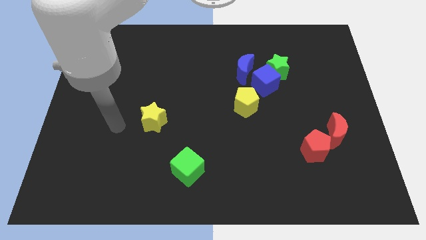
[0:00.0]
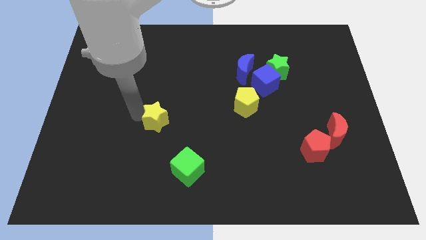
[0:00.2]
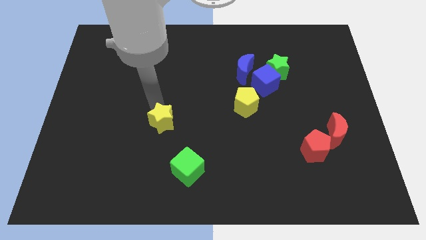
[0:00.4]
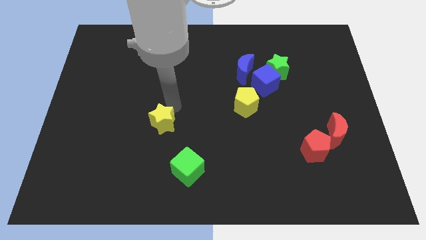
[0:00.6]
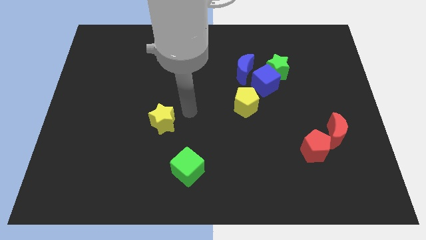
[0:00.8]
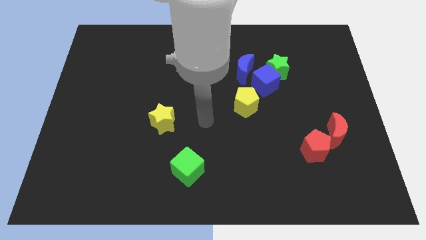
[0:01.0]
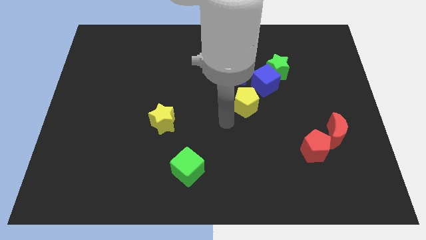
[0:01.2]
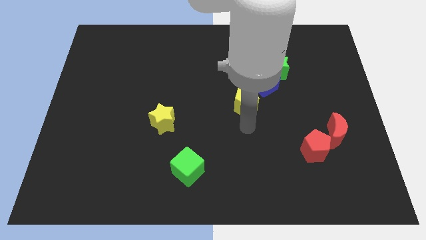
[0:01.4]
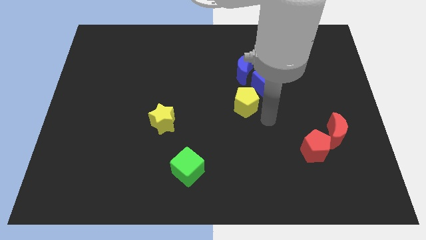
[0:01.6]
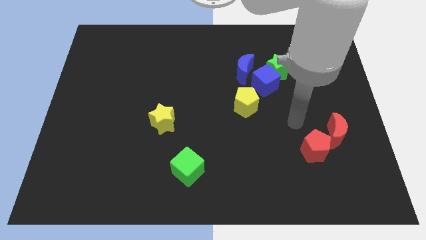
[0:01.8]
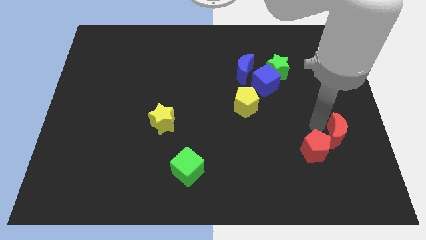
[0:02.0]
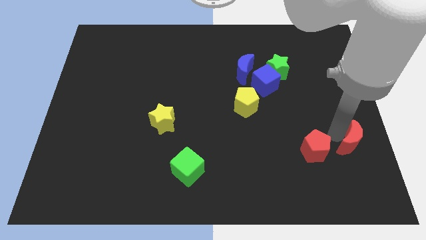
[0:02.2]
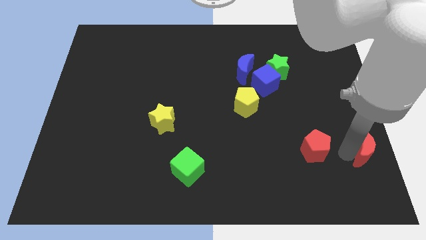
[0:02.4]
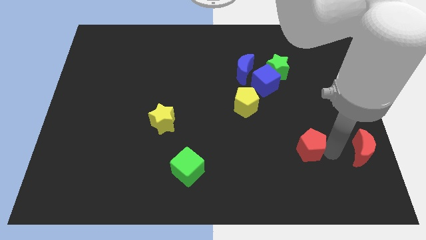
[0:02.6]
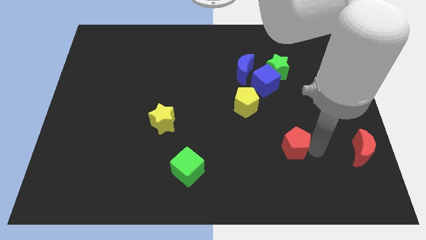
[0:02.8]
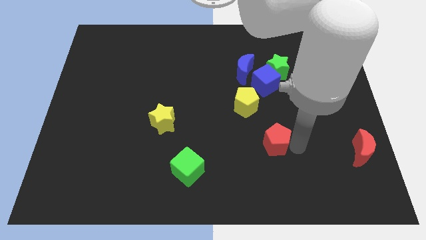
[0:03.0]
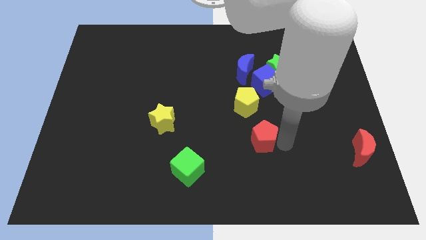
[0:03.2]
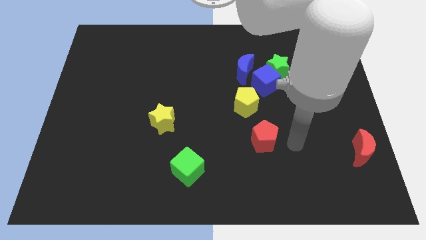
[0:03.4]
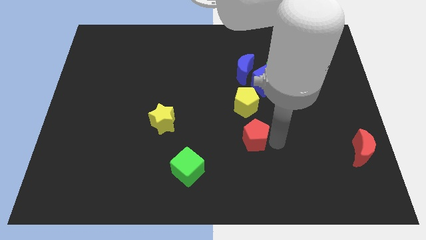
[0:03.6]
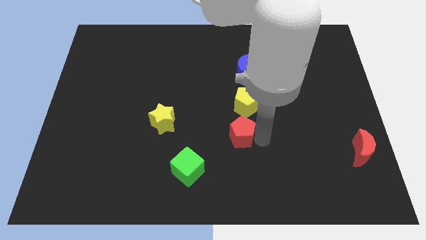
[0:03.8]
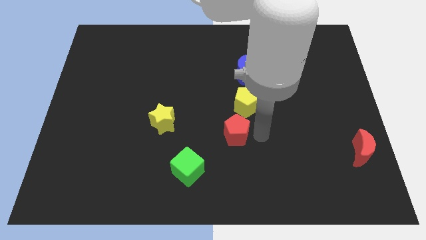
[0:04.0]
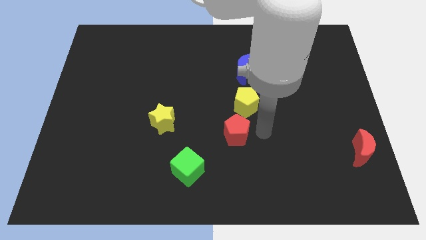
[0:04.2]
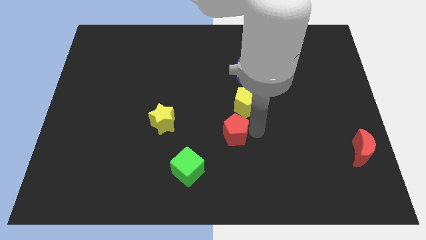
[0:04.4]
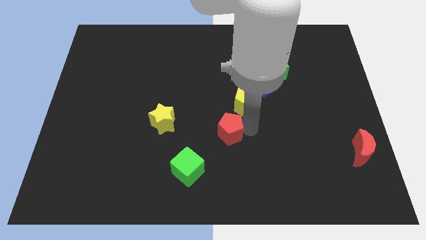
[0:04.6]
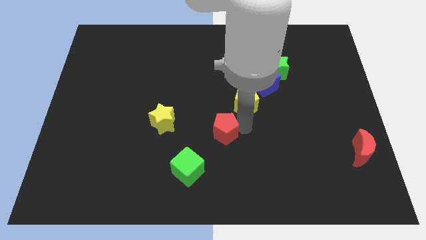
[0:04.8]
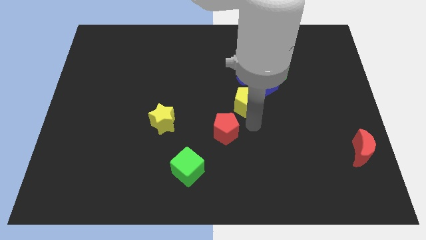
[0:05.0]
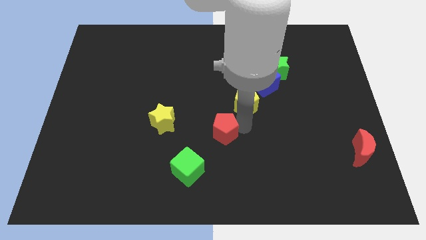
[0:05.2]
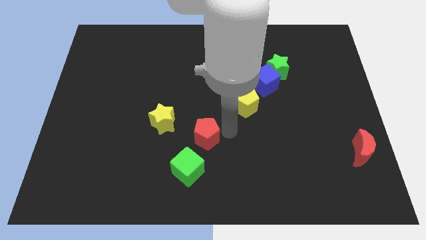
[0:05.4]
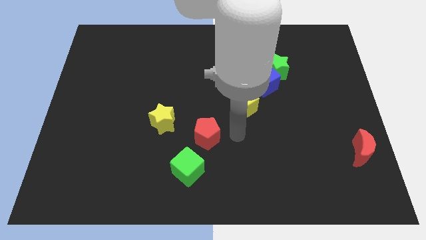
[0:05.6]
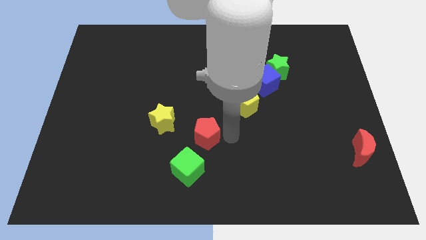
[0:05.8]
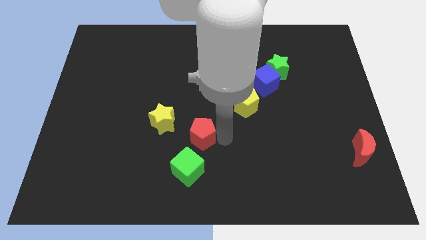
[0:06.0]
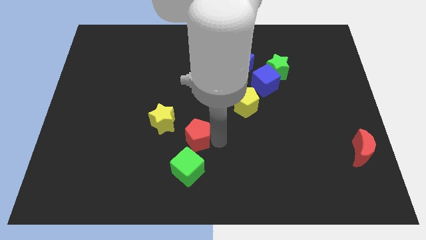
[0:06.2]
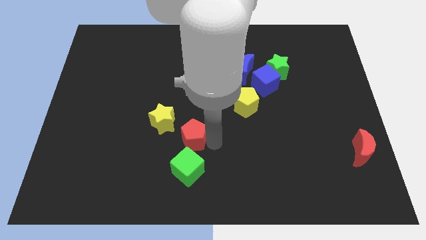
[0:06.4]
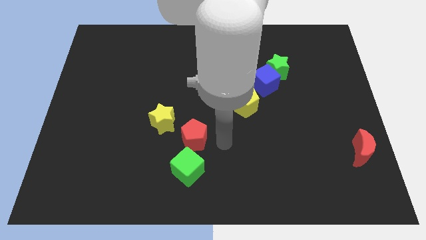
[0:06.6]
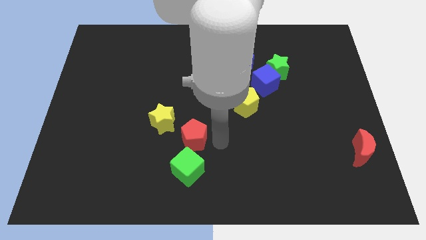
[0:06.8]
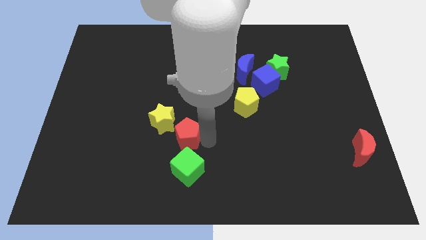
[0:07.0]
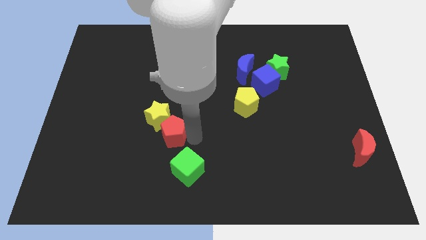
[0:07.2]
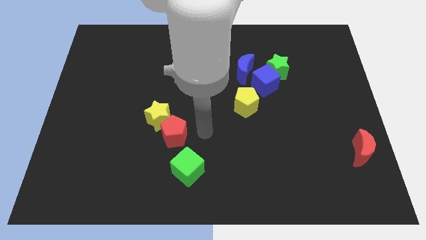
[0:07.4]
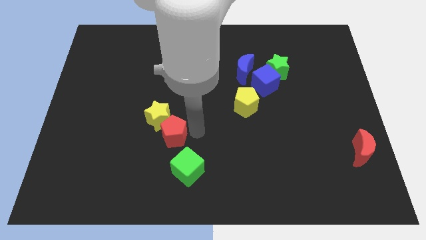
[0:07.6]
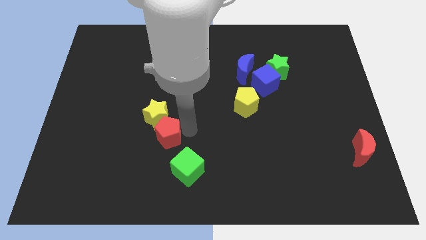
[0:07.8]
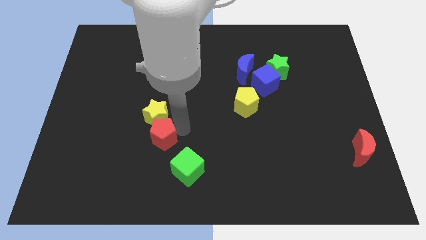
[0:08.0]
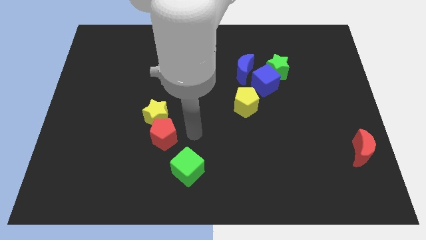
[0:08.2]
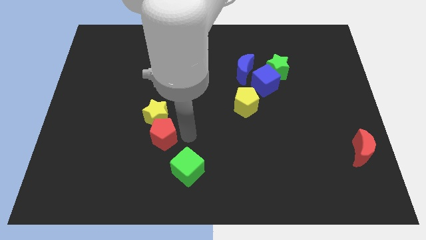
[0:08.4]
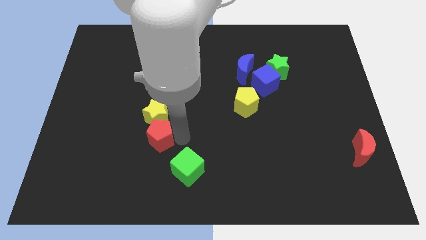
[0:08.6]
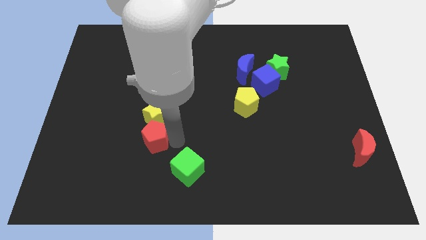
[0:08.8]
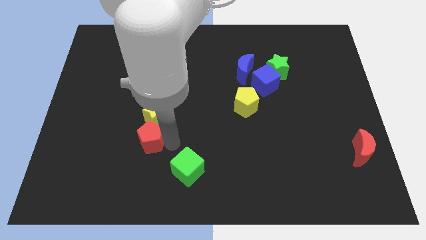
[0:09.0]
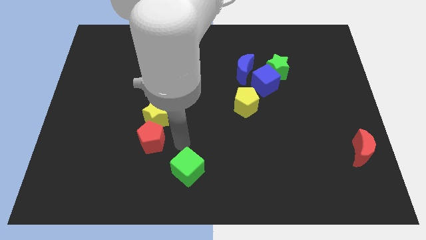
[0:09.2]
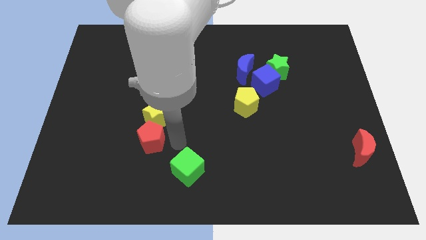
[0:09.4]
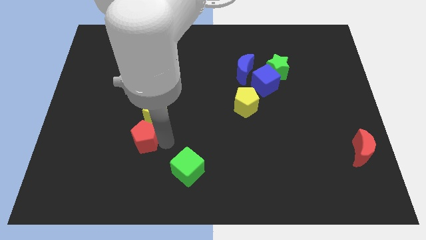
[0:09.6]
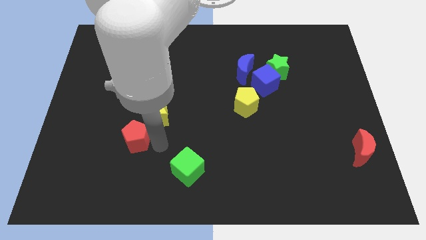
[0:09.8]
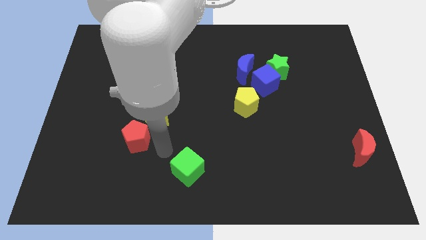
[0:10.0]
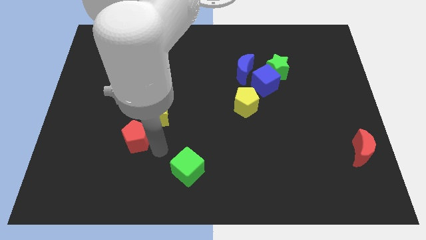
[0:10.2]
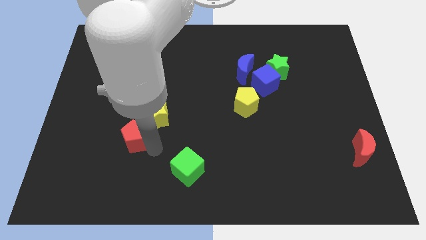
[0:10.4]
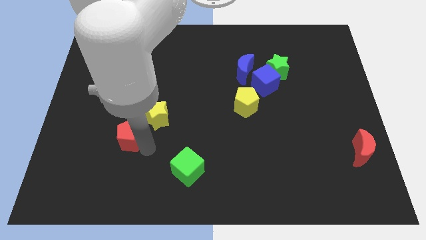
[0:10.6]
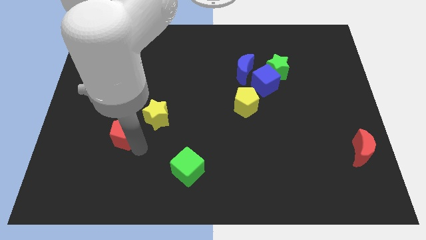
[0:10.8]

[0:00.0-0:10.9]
move the red pentagon left of the yellow star

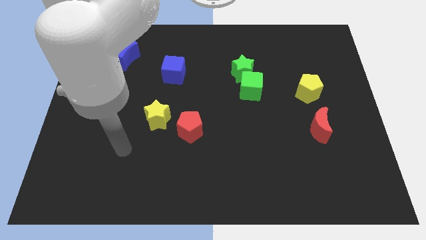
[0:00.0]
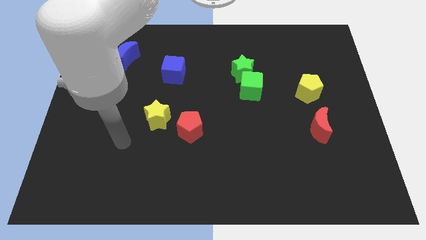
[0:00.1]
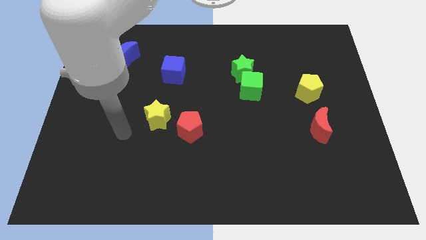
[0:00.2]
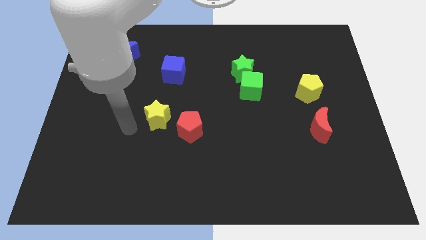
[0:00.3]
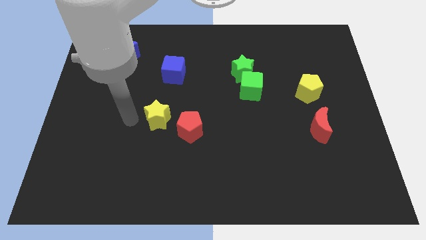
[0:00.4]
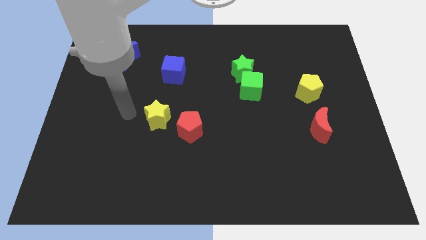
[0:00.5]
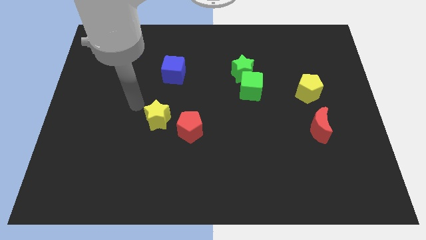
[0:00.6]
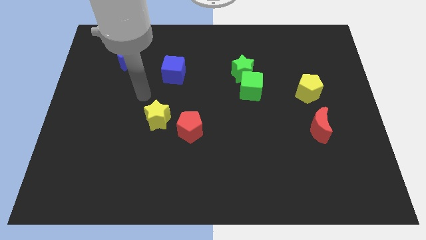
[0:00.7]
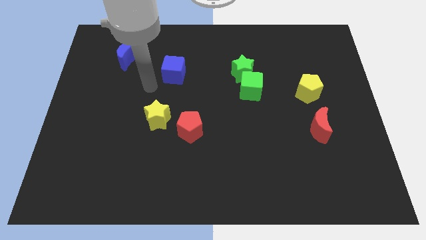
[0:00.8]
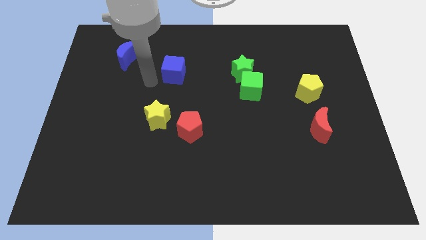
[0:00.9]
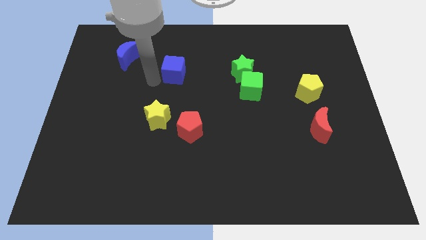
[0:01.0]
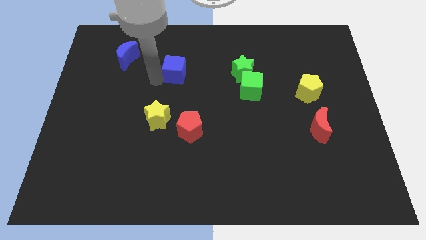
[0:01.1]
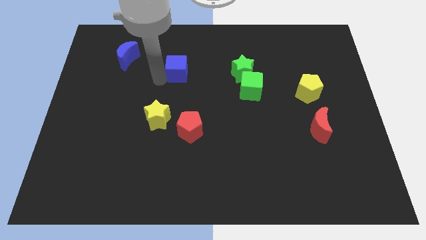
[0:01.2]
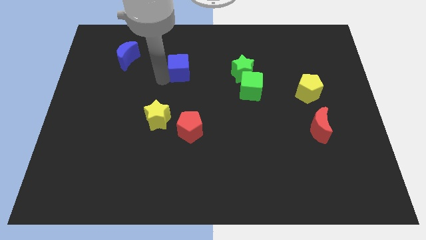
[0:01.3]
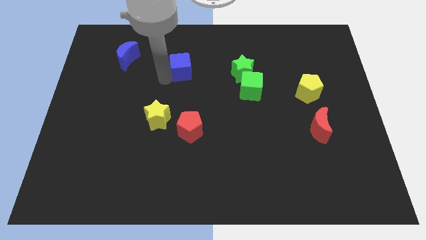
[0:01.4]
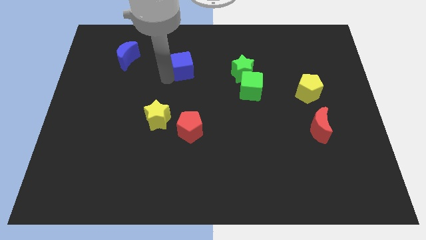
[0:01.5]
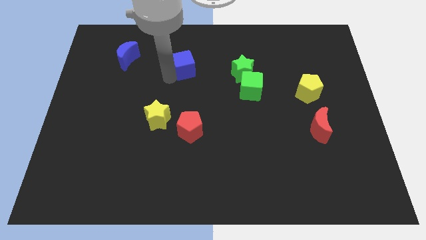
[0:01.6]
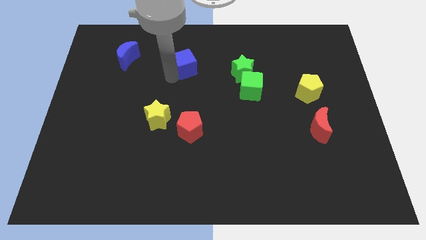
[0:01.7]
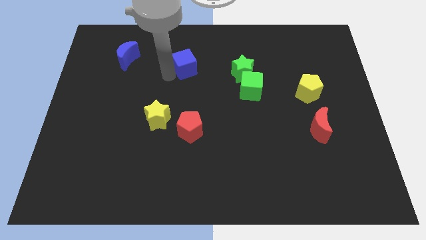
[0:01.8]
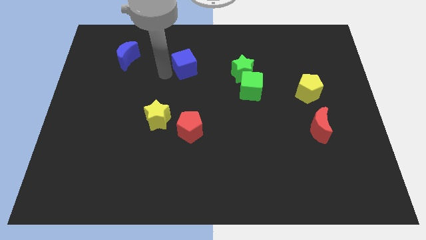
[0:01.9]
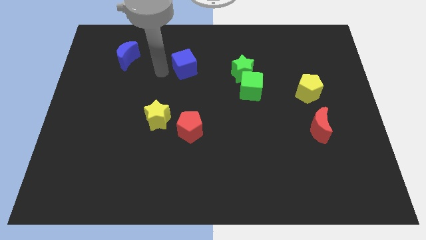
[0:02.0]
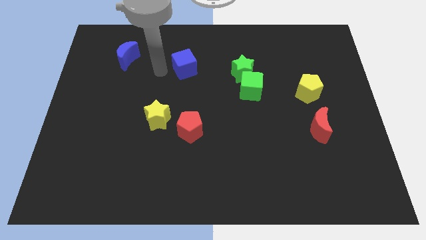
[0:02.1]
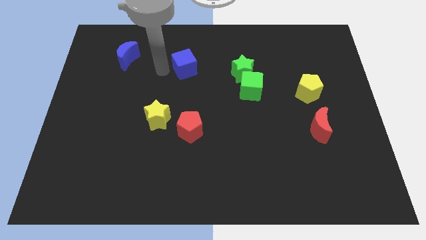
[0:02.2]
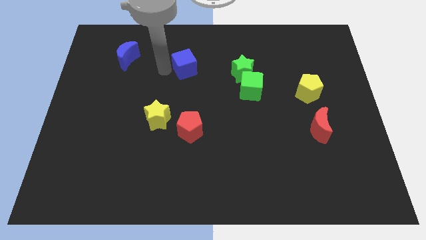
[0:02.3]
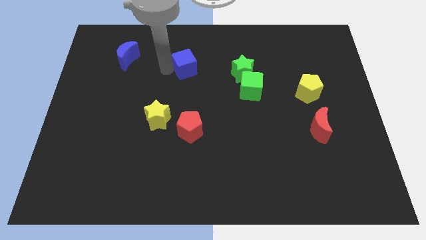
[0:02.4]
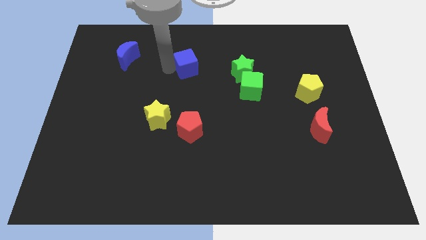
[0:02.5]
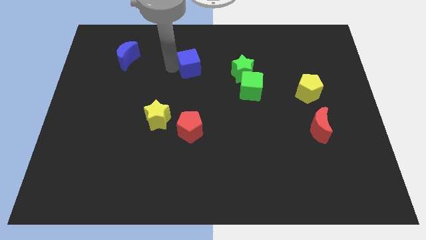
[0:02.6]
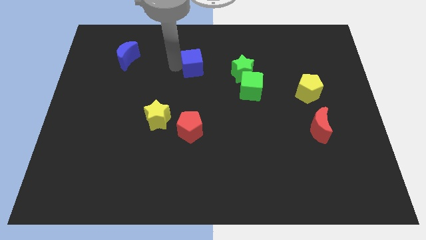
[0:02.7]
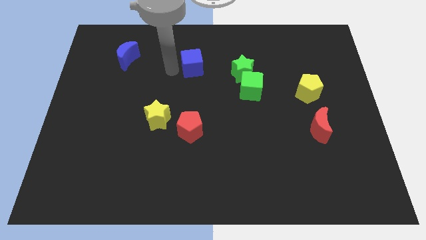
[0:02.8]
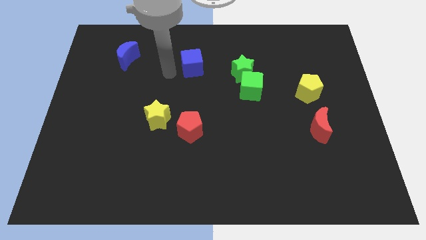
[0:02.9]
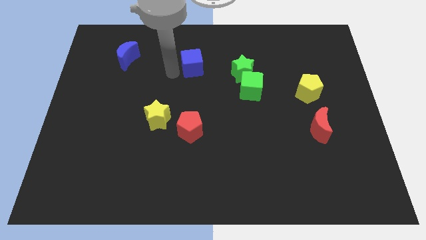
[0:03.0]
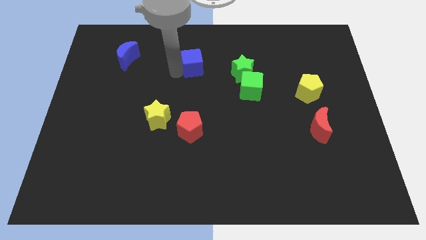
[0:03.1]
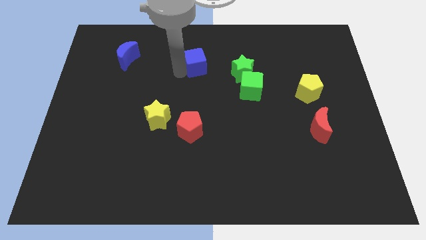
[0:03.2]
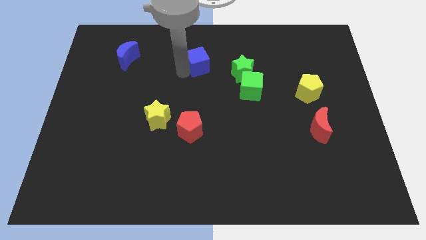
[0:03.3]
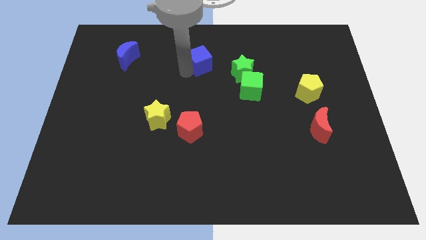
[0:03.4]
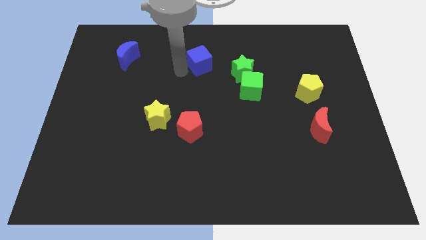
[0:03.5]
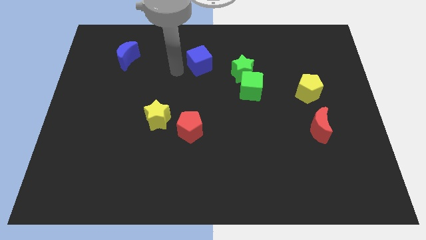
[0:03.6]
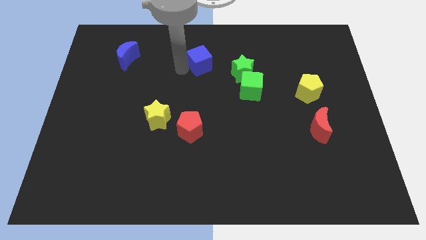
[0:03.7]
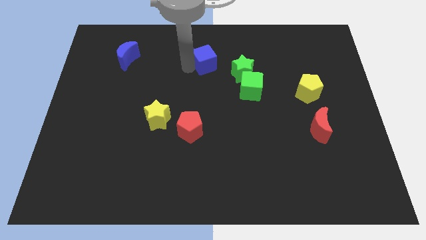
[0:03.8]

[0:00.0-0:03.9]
move the blue cube to the top left of the green star
